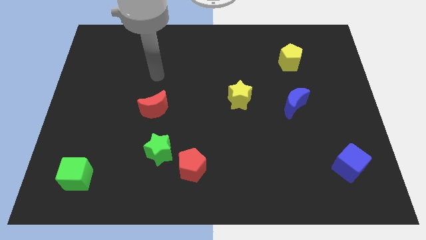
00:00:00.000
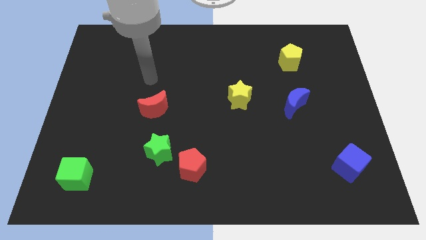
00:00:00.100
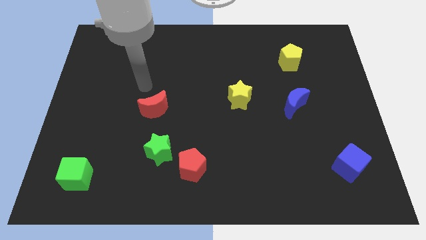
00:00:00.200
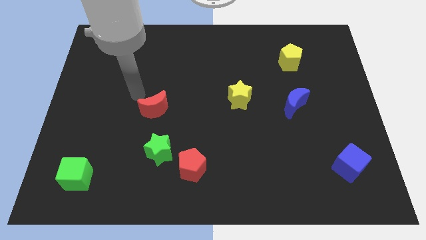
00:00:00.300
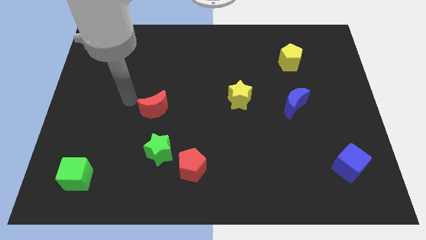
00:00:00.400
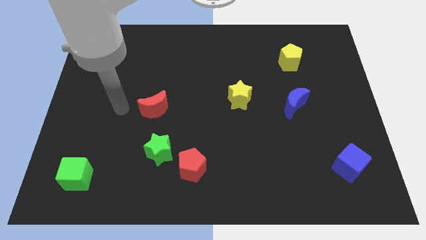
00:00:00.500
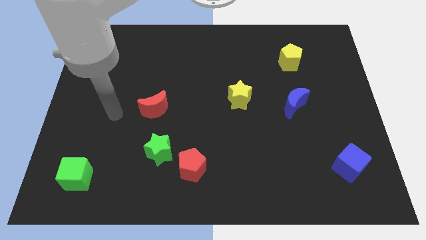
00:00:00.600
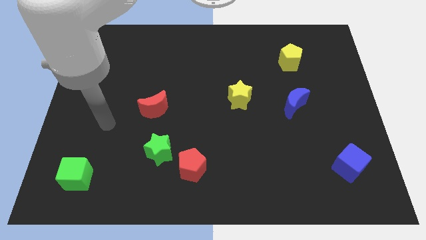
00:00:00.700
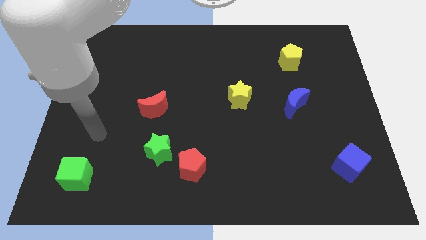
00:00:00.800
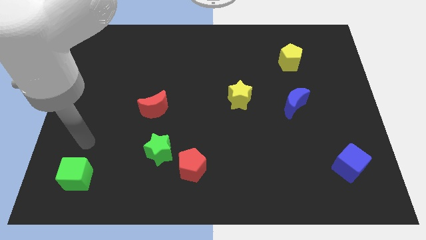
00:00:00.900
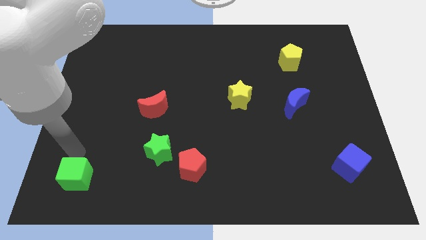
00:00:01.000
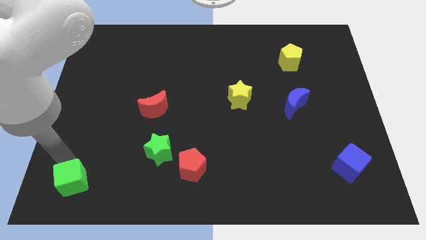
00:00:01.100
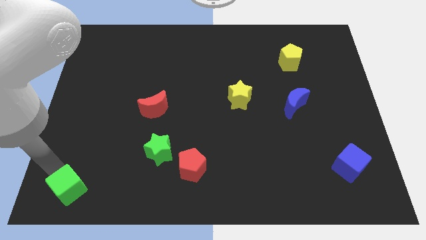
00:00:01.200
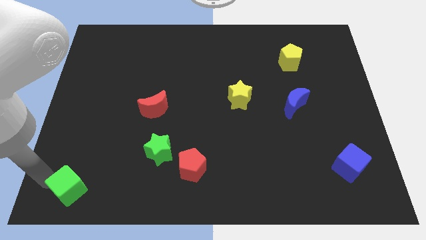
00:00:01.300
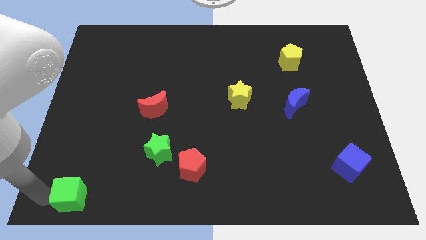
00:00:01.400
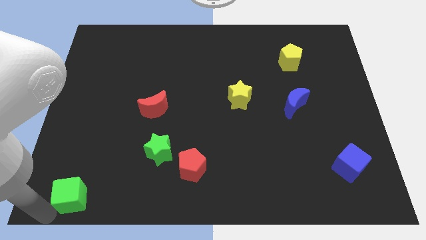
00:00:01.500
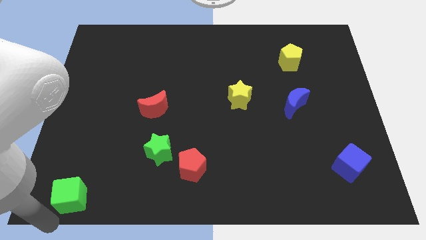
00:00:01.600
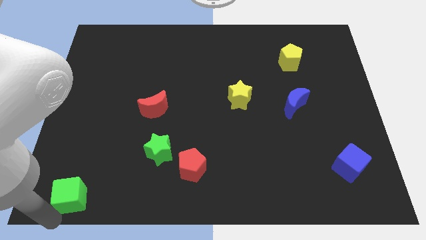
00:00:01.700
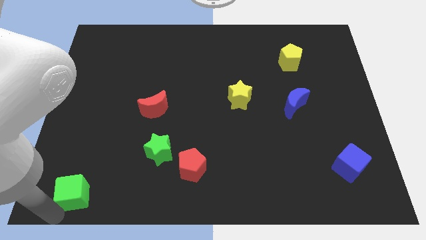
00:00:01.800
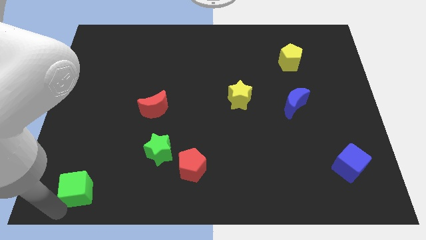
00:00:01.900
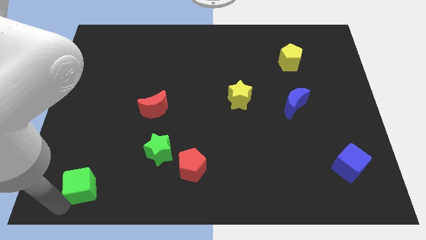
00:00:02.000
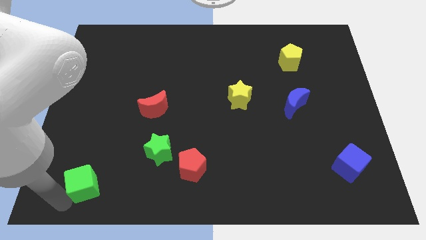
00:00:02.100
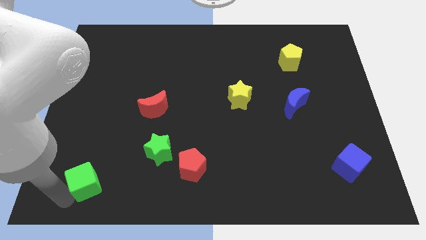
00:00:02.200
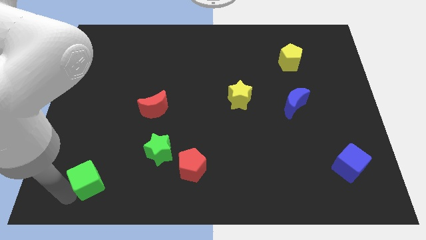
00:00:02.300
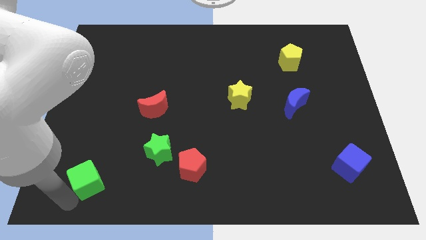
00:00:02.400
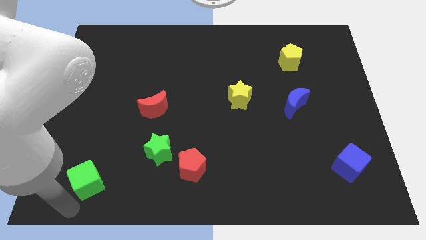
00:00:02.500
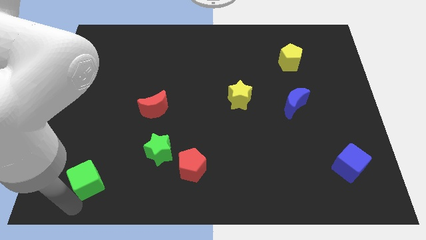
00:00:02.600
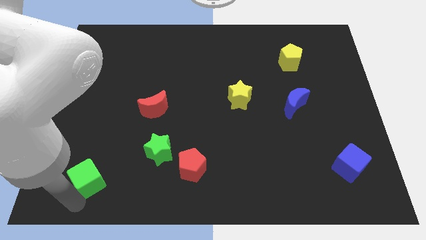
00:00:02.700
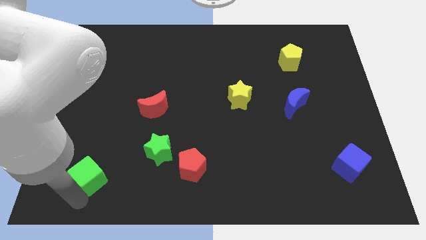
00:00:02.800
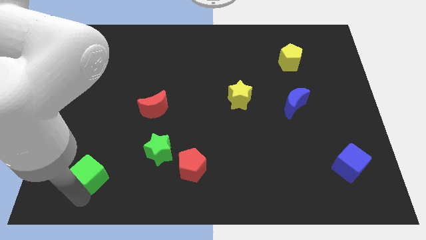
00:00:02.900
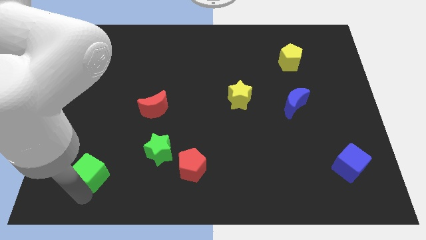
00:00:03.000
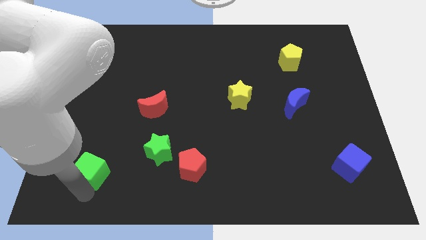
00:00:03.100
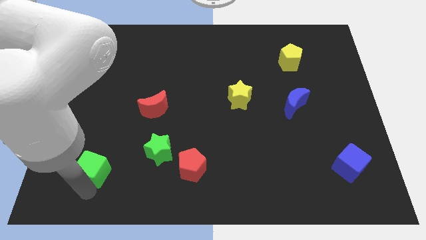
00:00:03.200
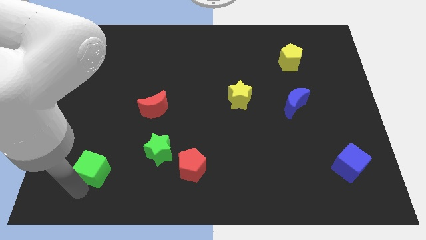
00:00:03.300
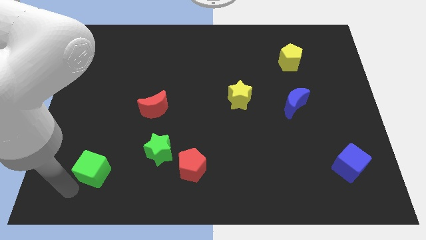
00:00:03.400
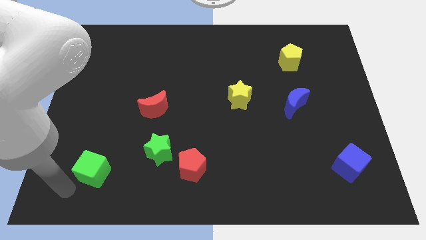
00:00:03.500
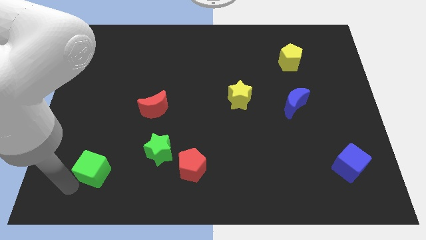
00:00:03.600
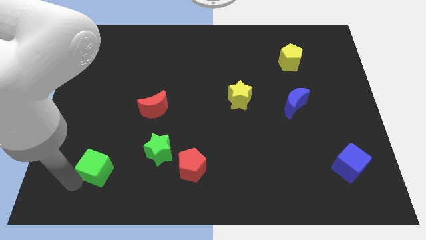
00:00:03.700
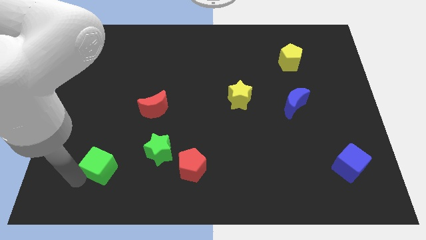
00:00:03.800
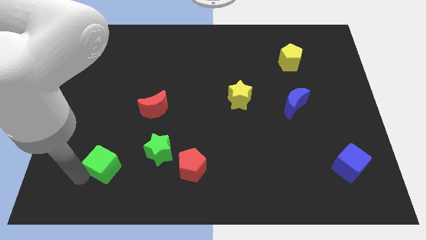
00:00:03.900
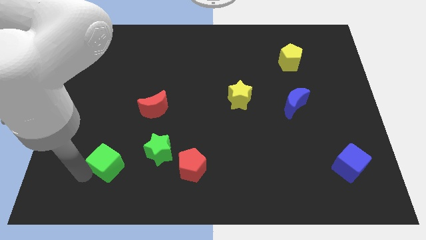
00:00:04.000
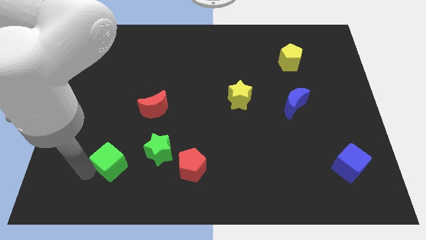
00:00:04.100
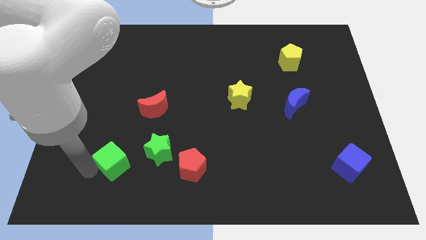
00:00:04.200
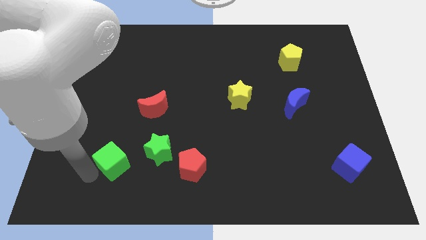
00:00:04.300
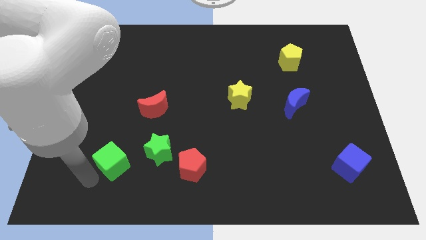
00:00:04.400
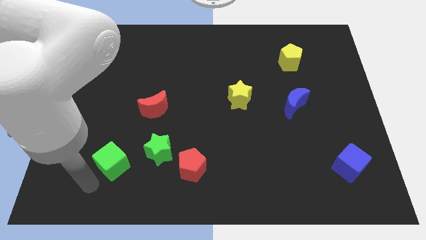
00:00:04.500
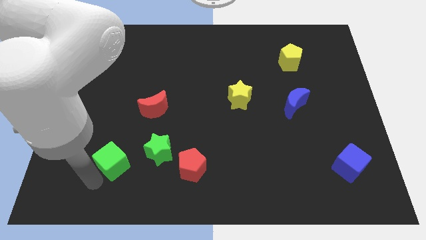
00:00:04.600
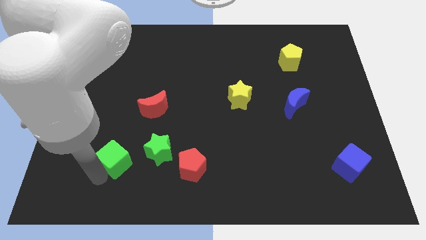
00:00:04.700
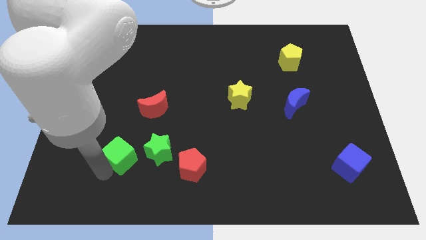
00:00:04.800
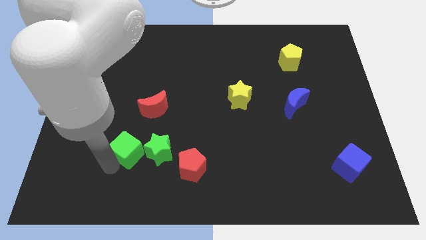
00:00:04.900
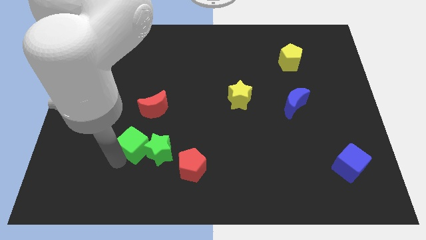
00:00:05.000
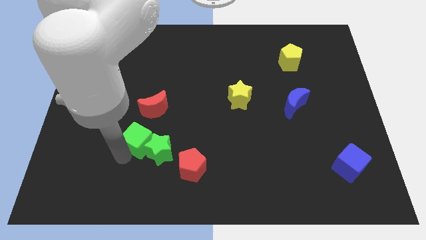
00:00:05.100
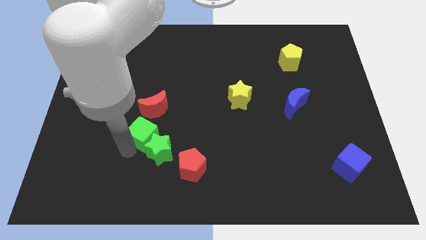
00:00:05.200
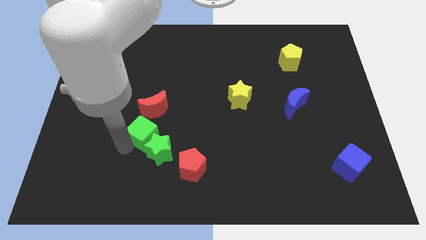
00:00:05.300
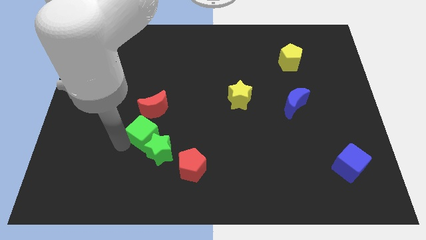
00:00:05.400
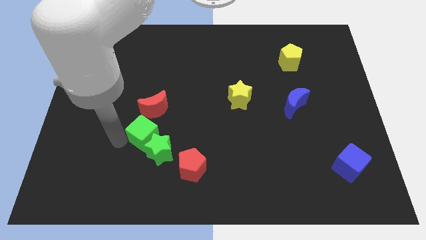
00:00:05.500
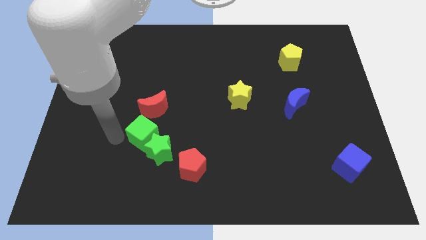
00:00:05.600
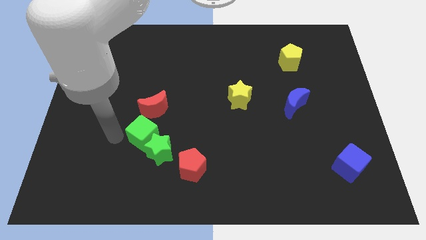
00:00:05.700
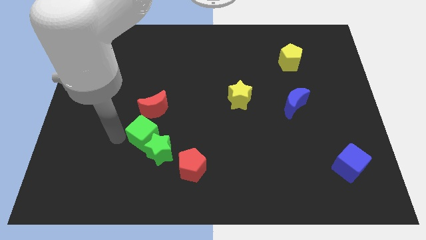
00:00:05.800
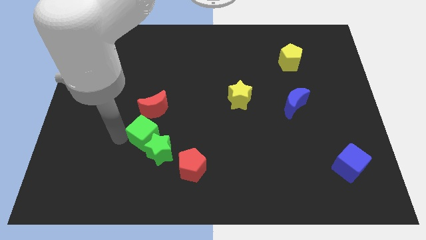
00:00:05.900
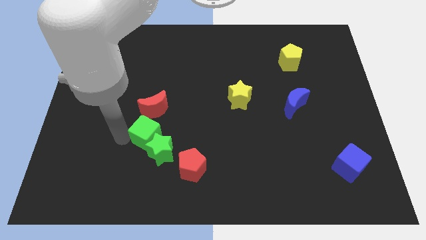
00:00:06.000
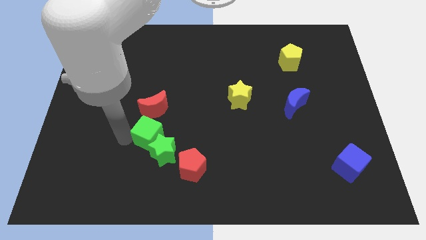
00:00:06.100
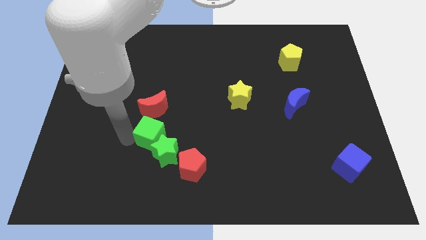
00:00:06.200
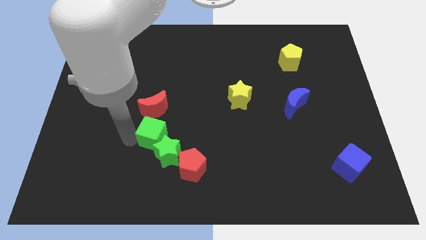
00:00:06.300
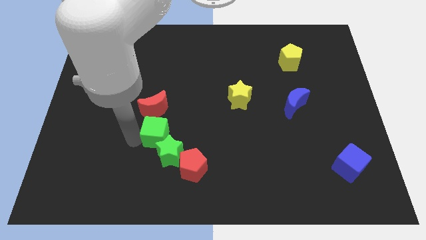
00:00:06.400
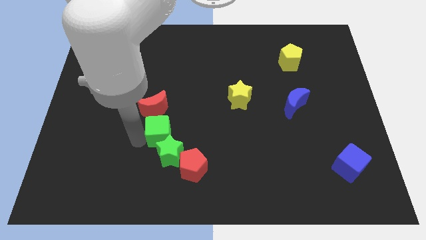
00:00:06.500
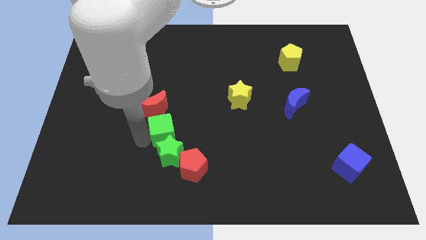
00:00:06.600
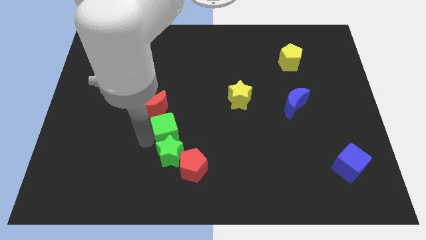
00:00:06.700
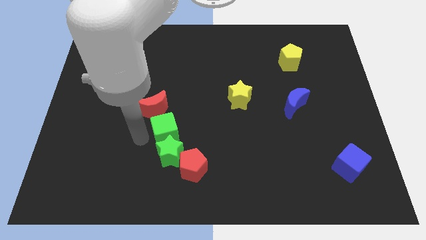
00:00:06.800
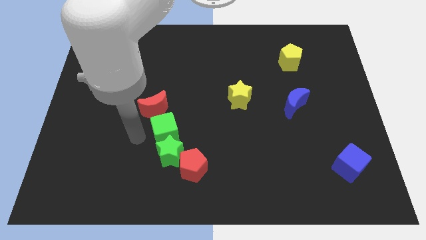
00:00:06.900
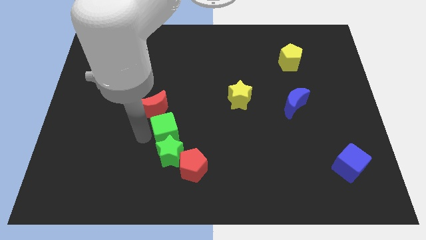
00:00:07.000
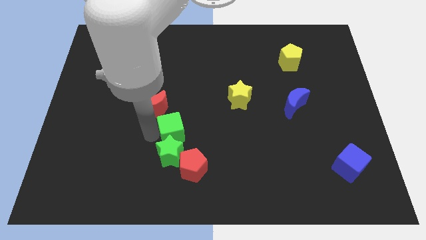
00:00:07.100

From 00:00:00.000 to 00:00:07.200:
put the green cube to the top of the red pentagon
